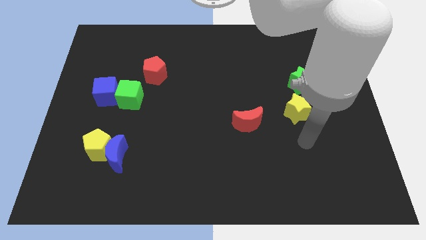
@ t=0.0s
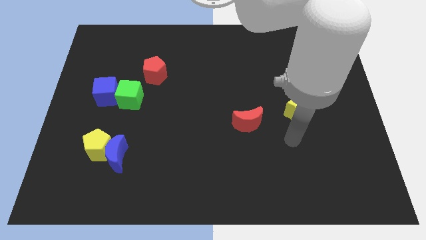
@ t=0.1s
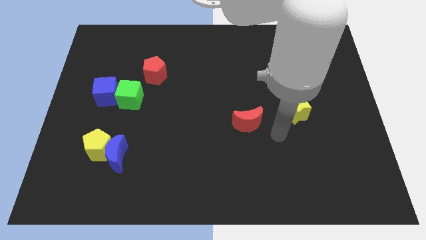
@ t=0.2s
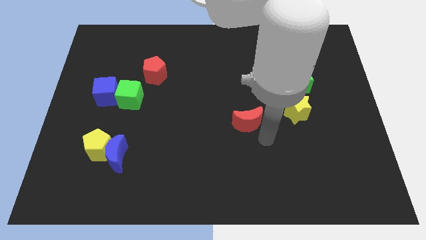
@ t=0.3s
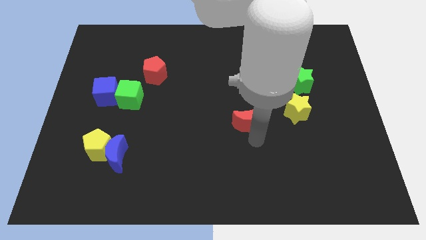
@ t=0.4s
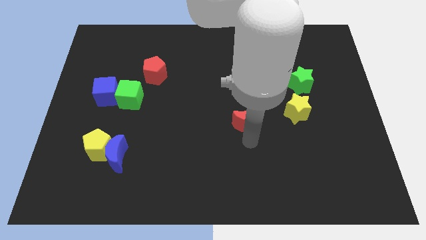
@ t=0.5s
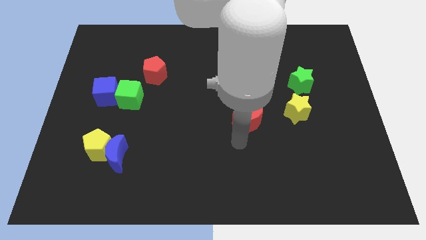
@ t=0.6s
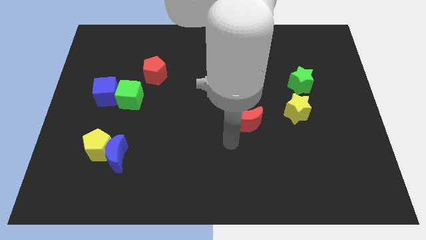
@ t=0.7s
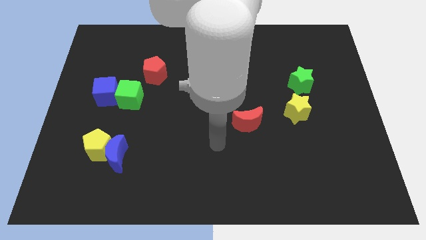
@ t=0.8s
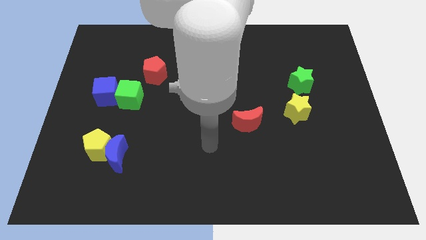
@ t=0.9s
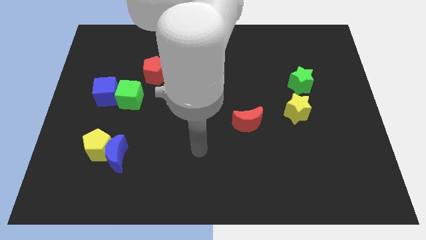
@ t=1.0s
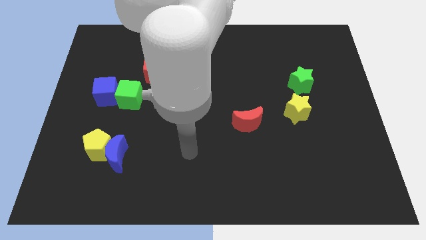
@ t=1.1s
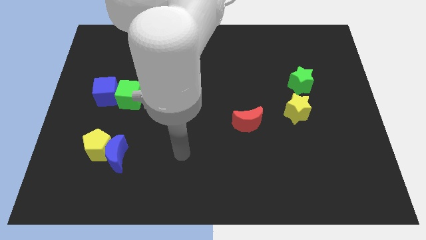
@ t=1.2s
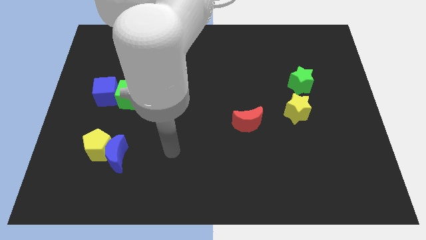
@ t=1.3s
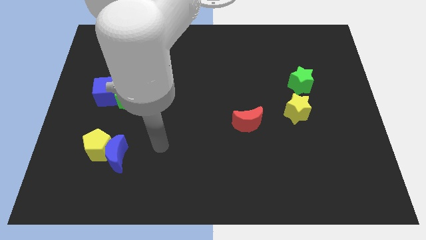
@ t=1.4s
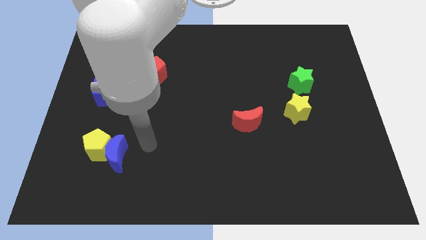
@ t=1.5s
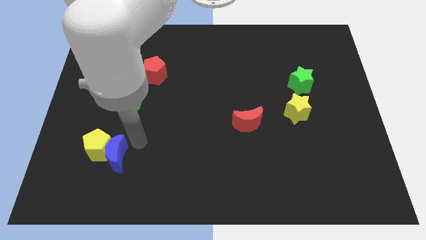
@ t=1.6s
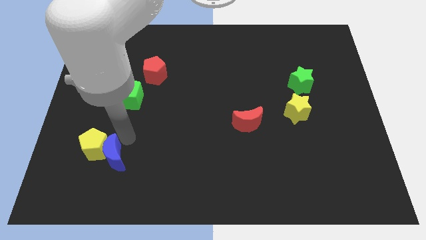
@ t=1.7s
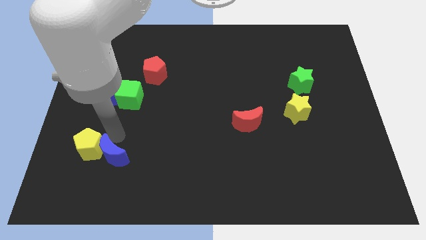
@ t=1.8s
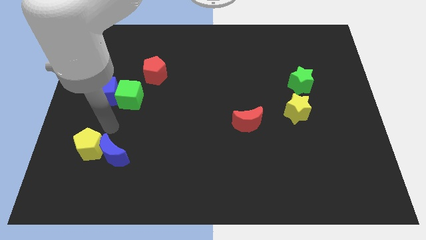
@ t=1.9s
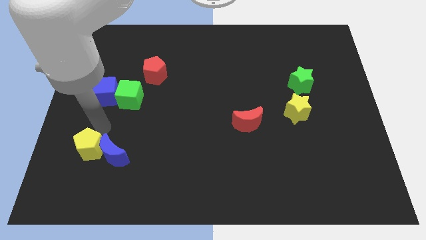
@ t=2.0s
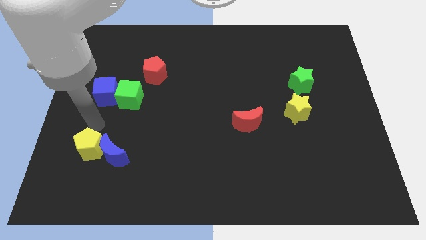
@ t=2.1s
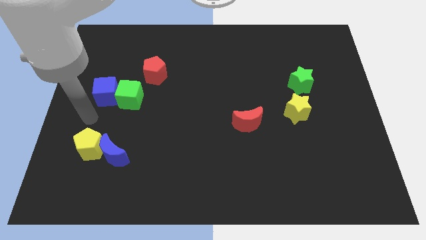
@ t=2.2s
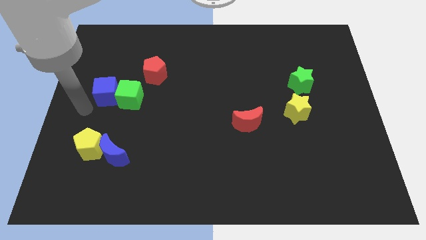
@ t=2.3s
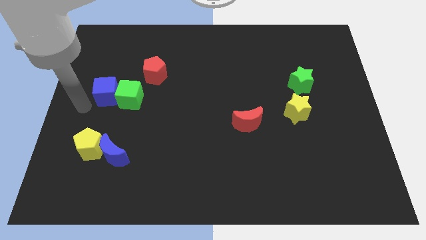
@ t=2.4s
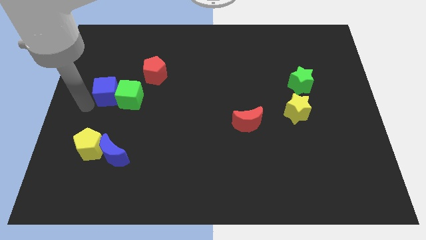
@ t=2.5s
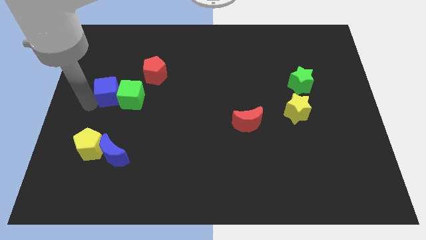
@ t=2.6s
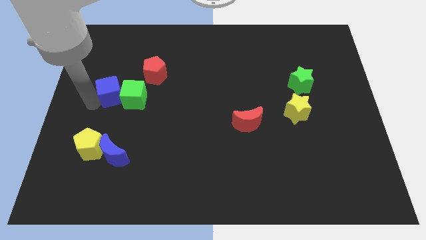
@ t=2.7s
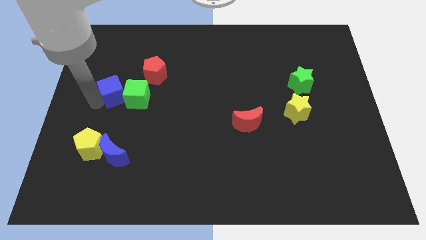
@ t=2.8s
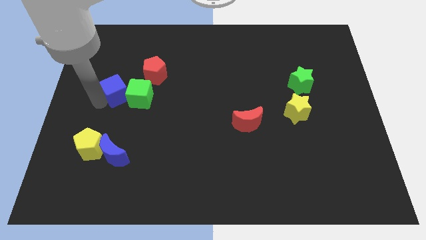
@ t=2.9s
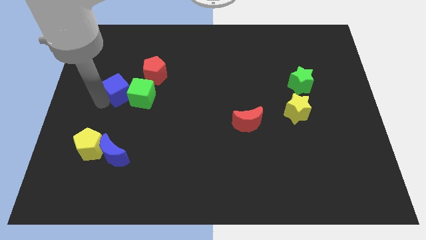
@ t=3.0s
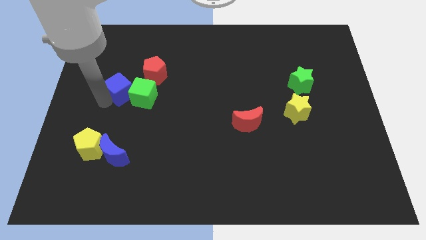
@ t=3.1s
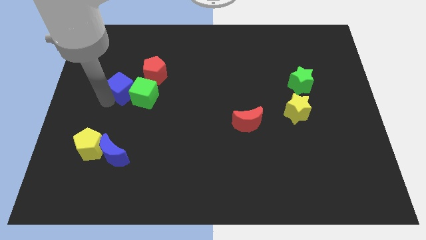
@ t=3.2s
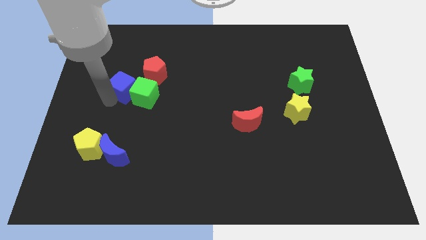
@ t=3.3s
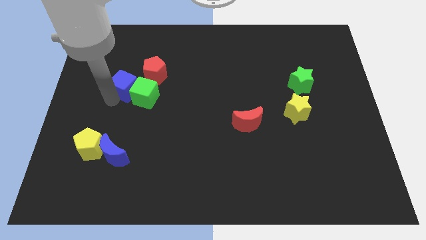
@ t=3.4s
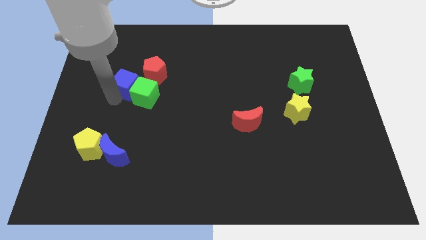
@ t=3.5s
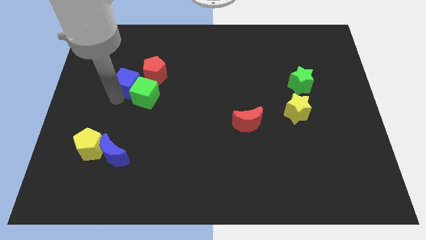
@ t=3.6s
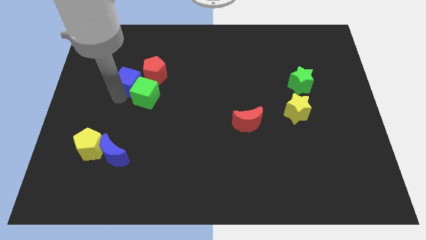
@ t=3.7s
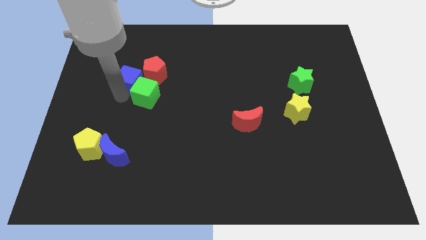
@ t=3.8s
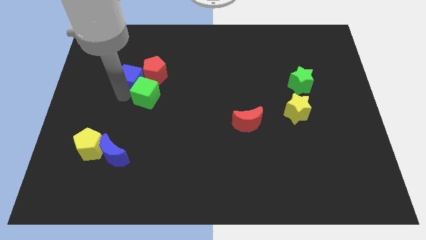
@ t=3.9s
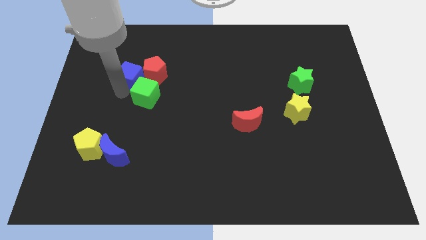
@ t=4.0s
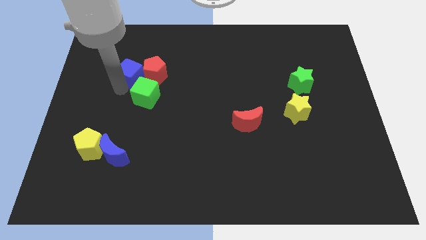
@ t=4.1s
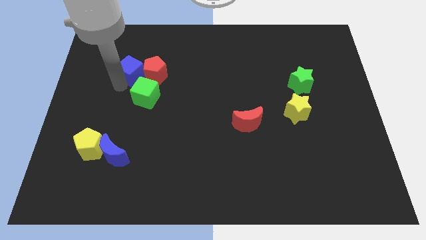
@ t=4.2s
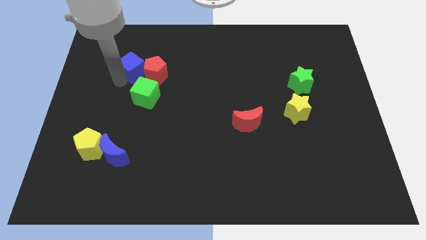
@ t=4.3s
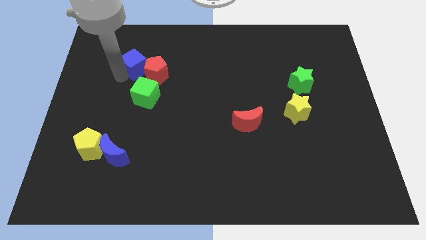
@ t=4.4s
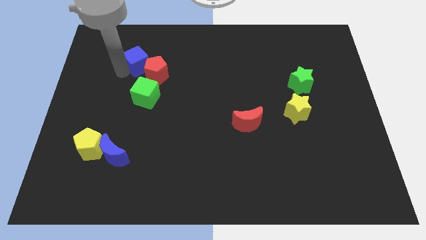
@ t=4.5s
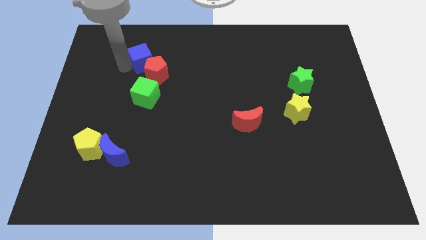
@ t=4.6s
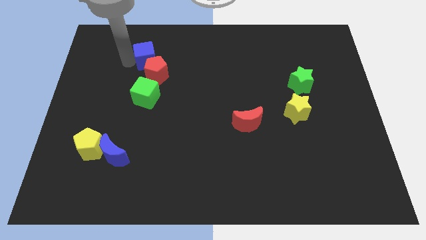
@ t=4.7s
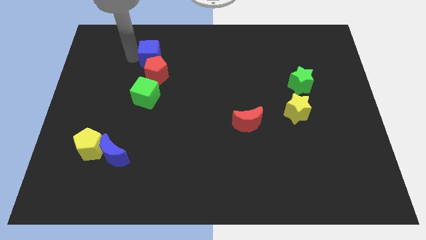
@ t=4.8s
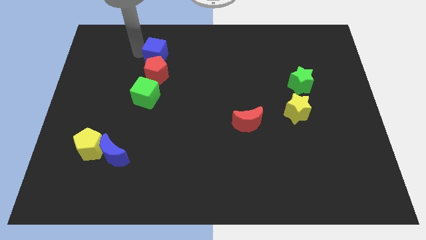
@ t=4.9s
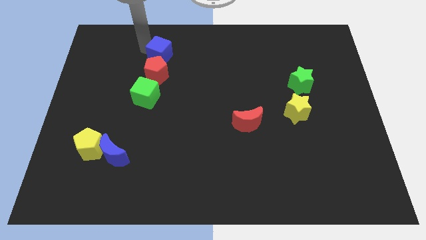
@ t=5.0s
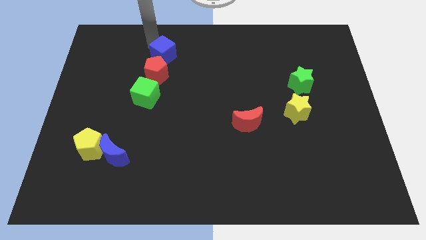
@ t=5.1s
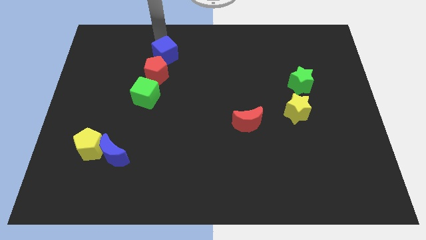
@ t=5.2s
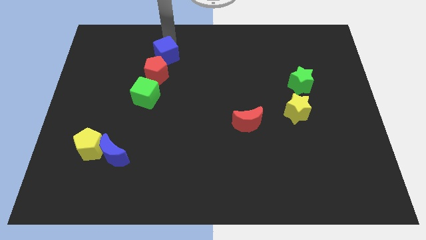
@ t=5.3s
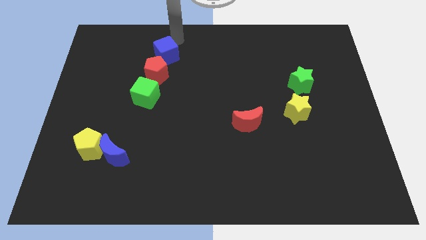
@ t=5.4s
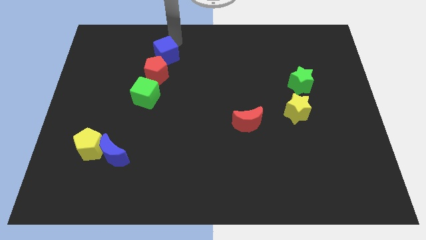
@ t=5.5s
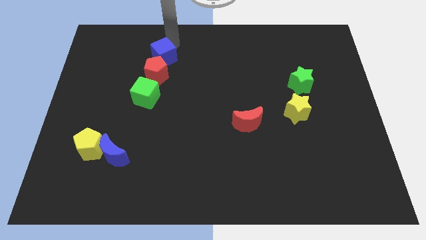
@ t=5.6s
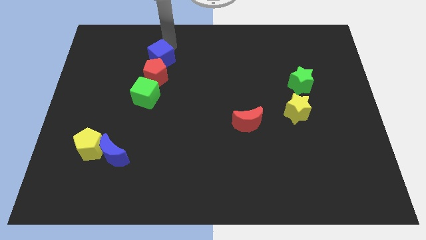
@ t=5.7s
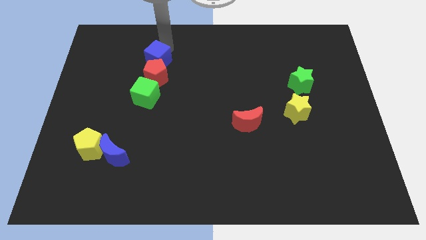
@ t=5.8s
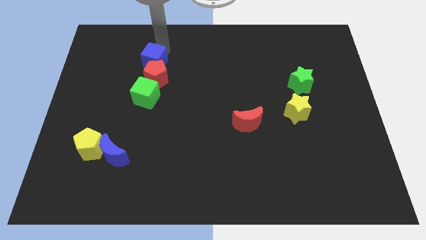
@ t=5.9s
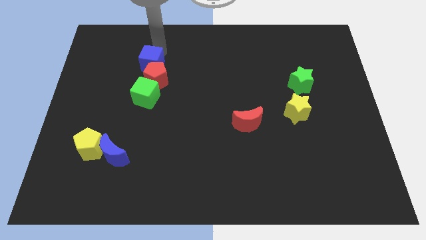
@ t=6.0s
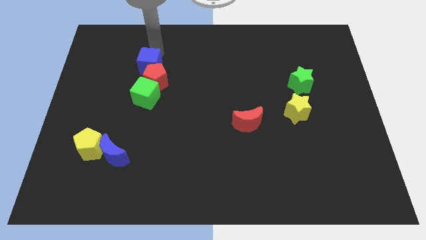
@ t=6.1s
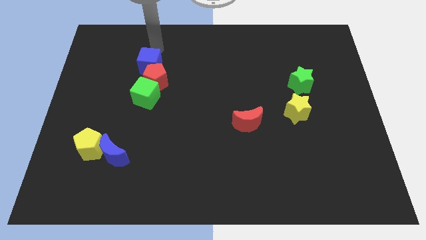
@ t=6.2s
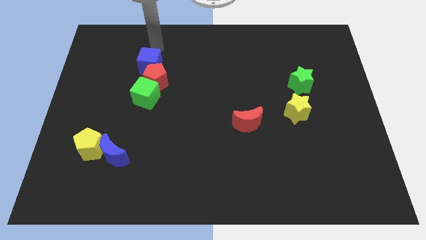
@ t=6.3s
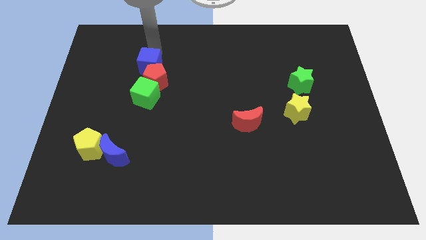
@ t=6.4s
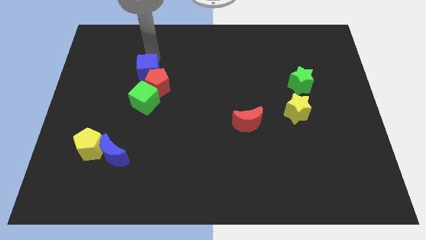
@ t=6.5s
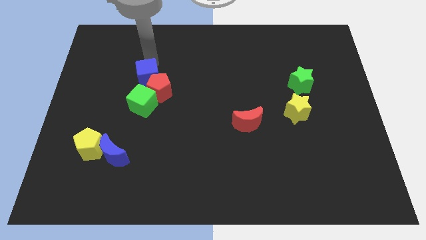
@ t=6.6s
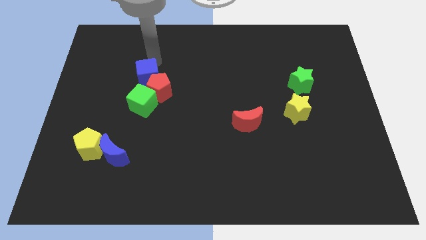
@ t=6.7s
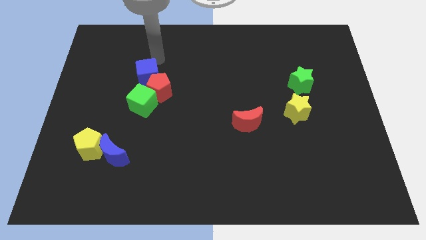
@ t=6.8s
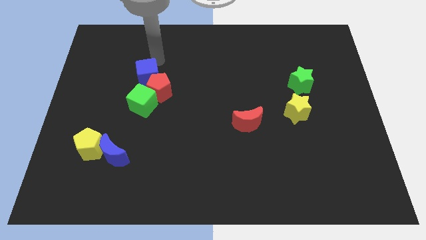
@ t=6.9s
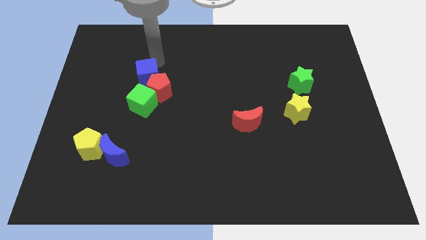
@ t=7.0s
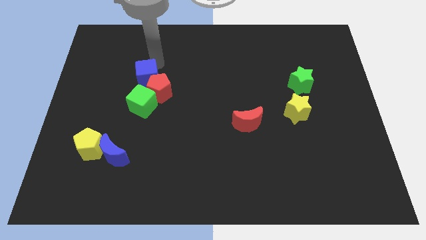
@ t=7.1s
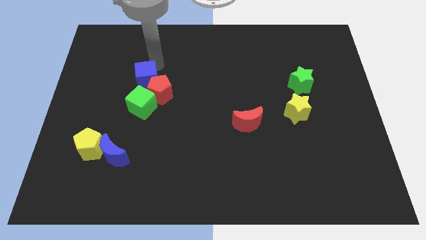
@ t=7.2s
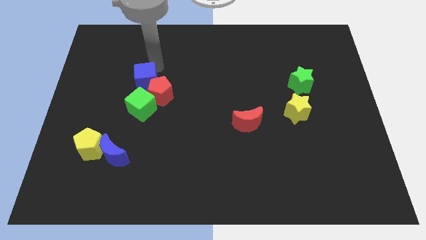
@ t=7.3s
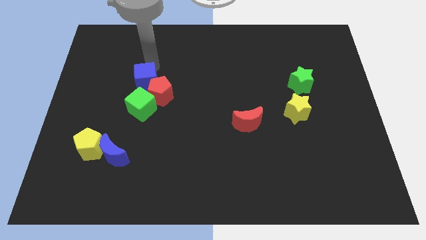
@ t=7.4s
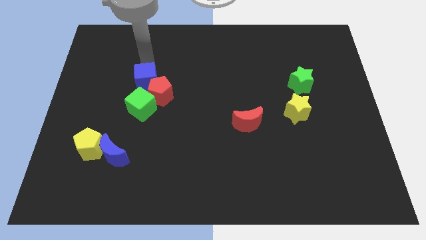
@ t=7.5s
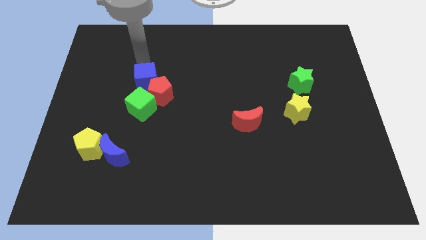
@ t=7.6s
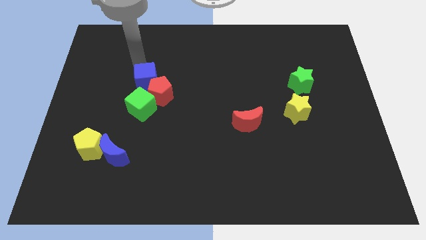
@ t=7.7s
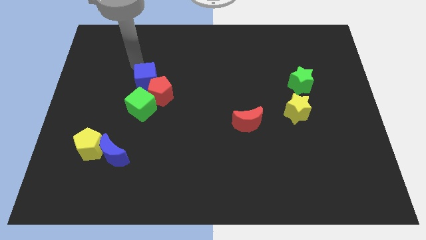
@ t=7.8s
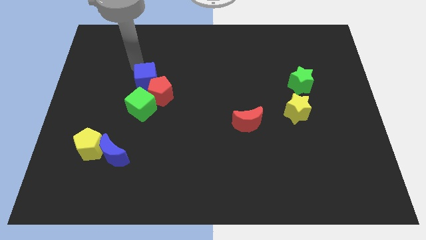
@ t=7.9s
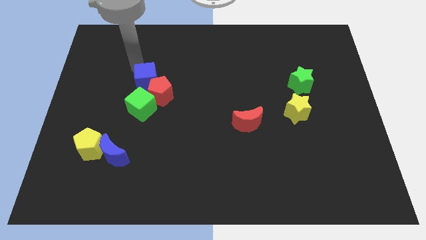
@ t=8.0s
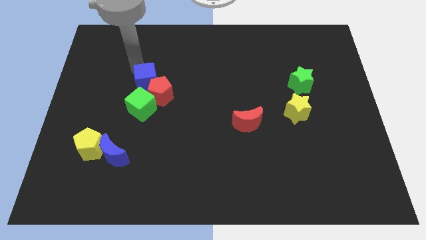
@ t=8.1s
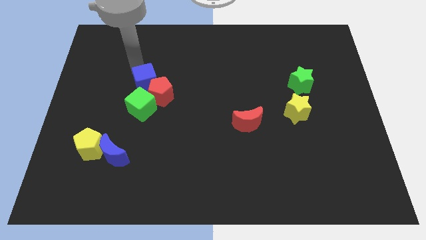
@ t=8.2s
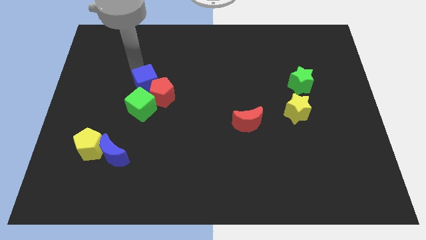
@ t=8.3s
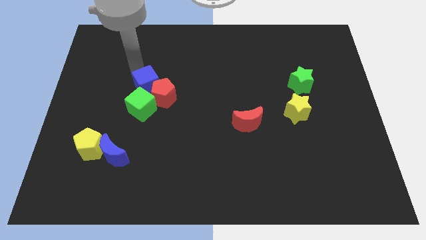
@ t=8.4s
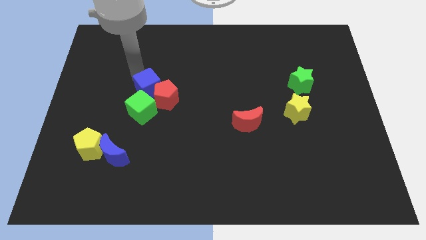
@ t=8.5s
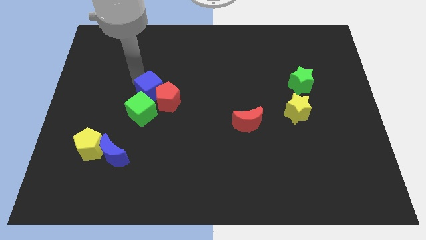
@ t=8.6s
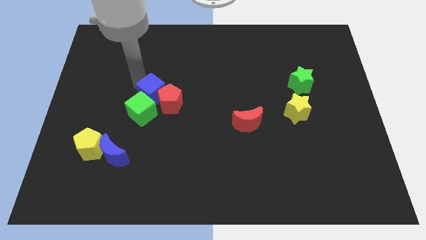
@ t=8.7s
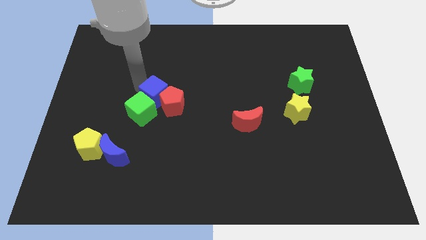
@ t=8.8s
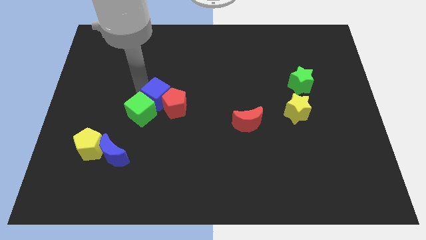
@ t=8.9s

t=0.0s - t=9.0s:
move the blue cube to the right side of the green cube
